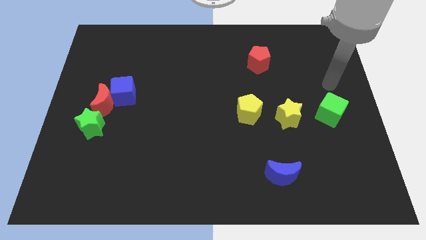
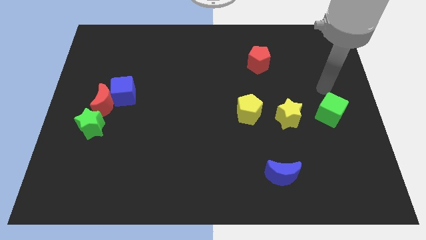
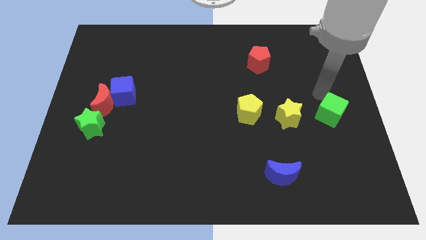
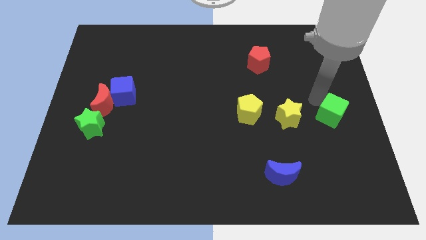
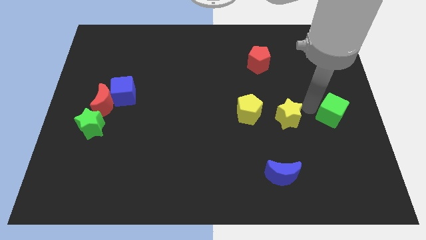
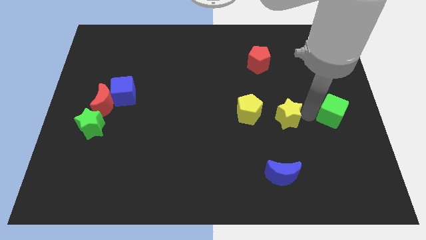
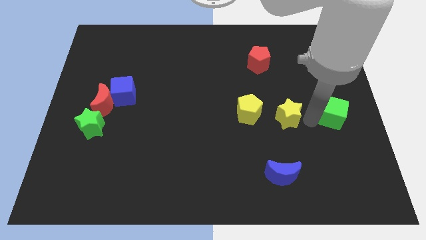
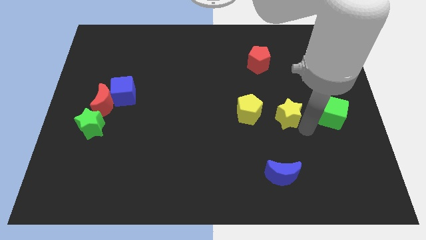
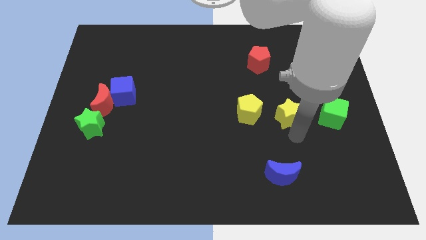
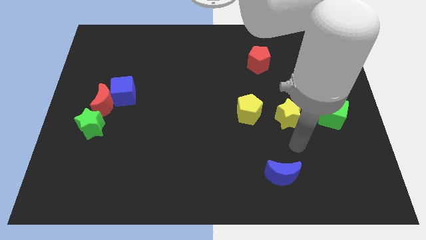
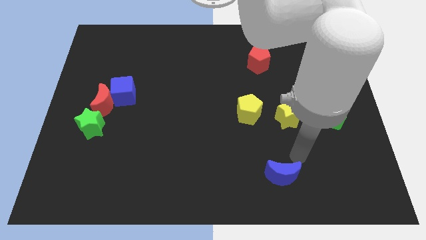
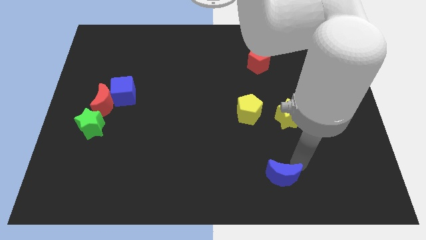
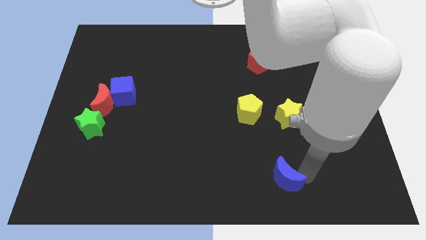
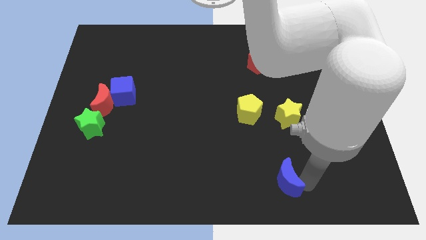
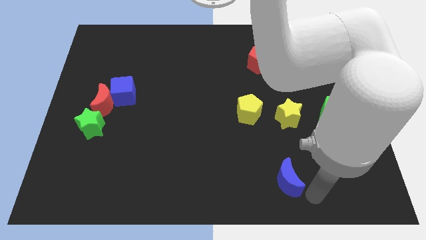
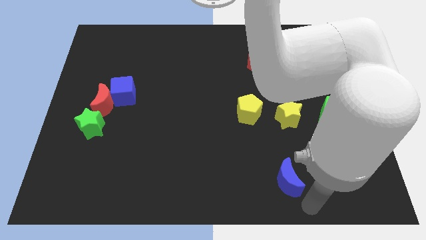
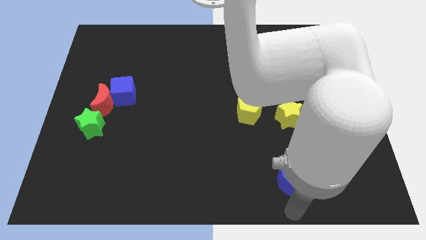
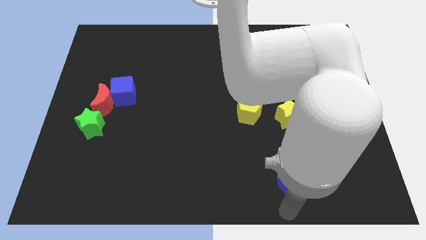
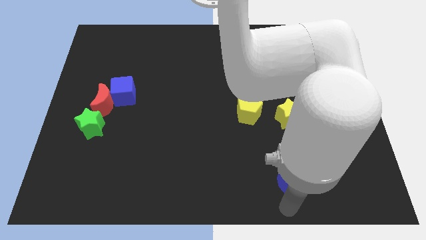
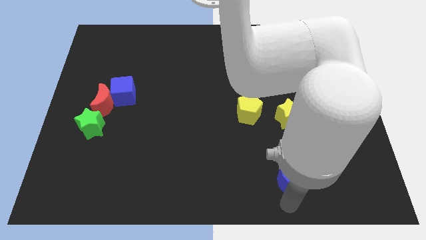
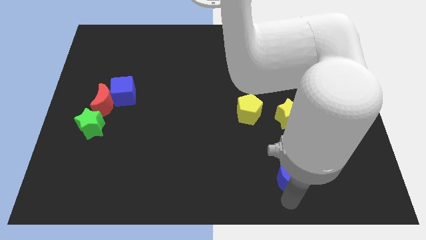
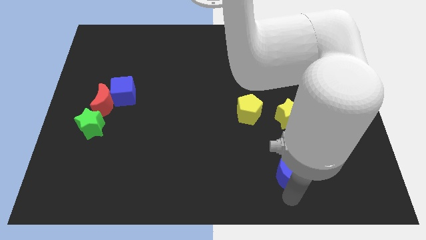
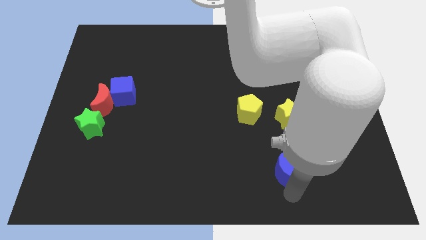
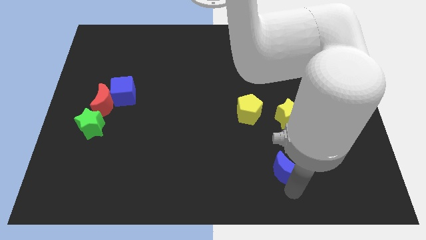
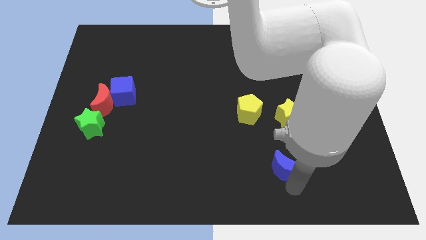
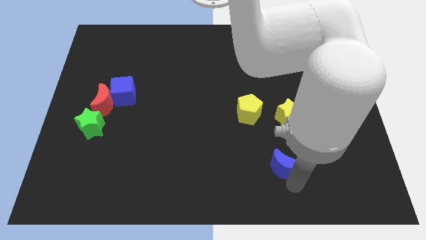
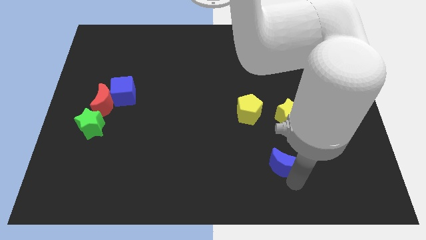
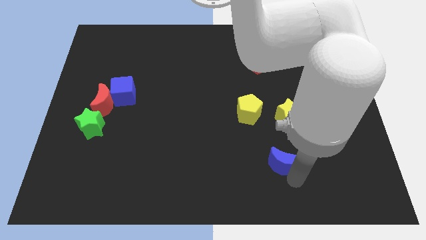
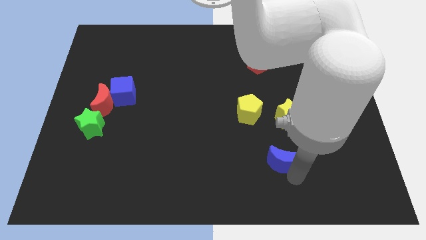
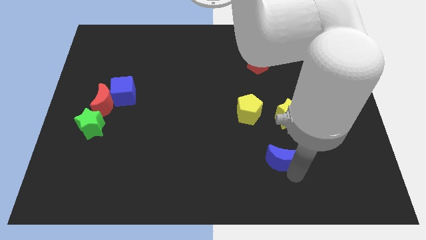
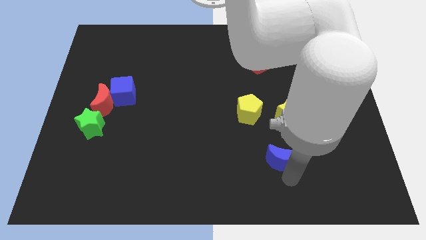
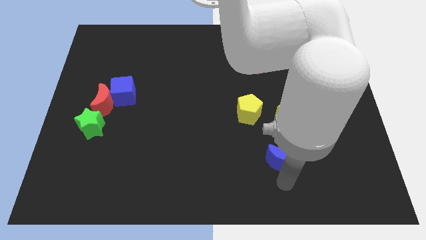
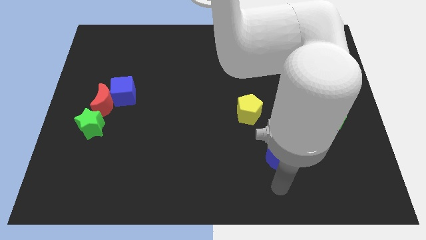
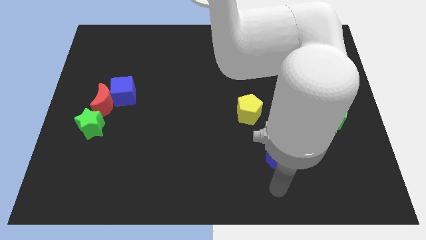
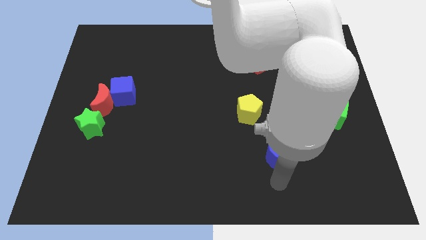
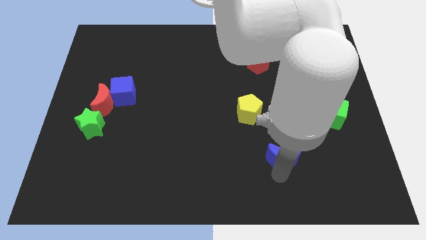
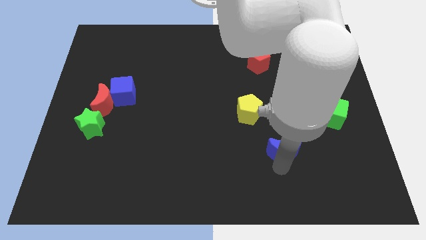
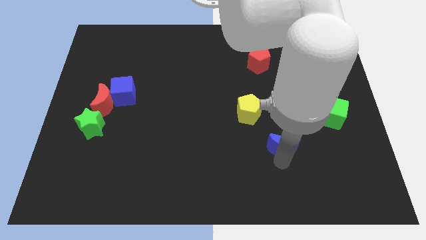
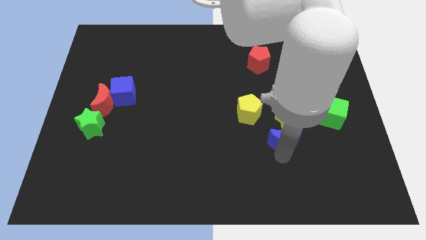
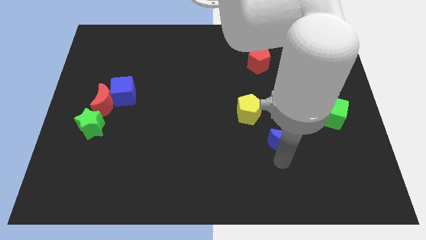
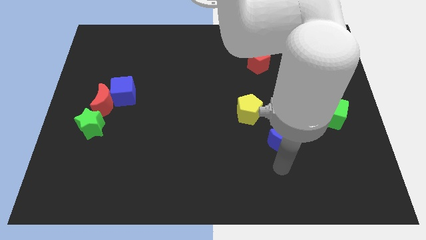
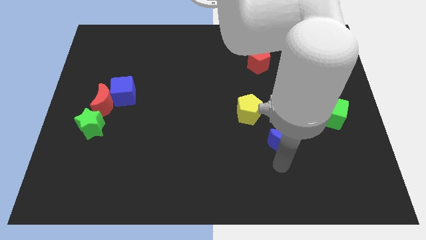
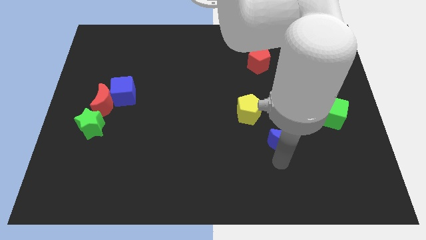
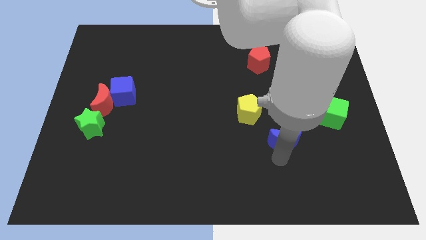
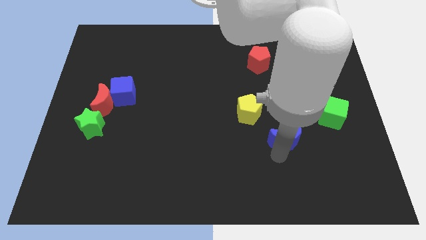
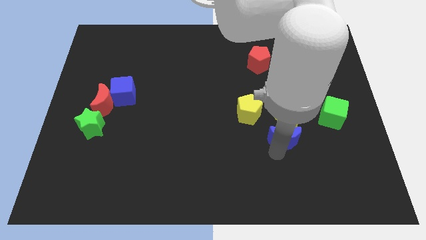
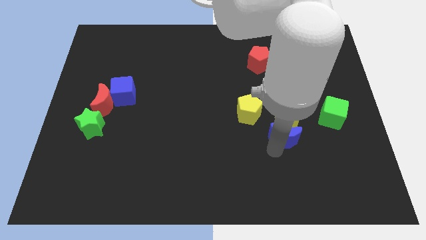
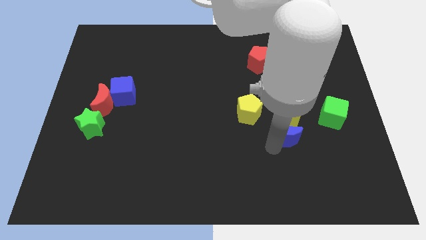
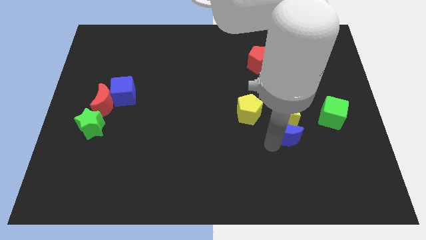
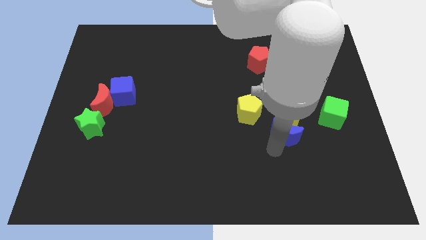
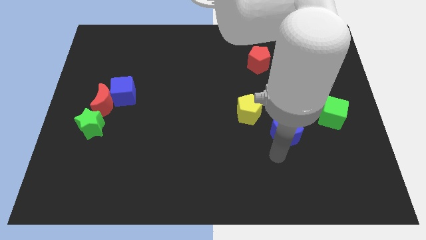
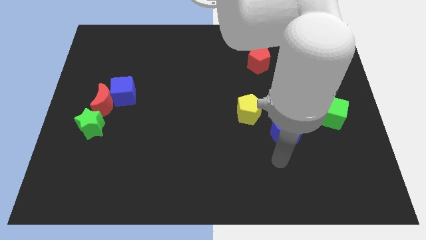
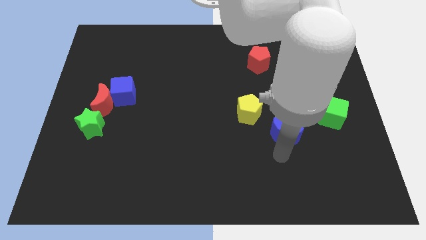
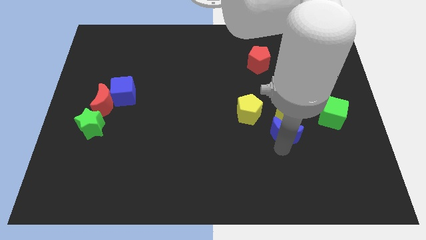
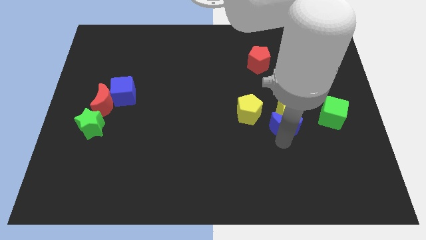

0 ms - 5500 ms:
move the blue moon to the left side of the green cube

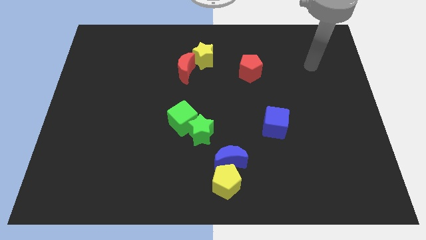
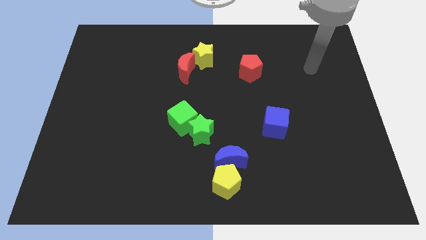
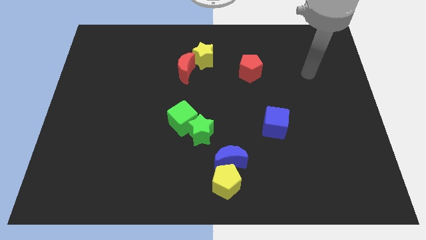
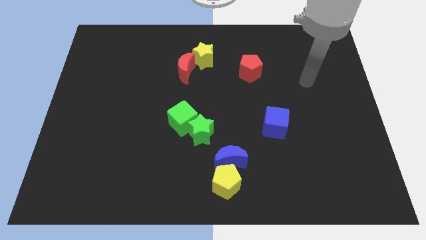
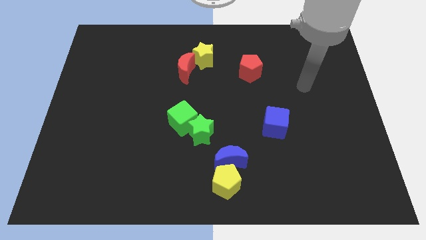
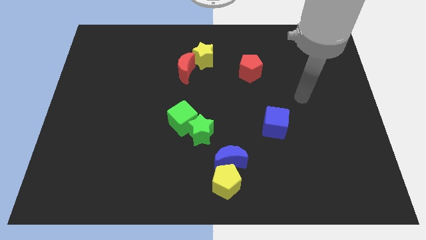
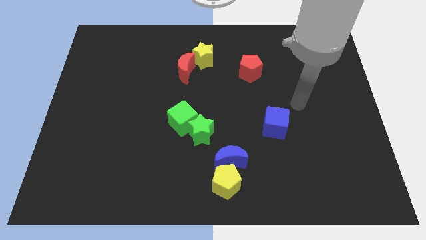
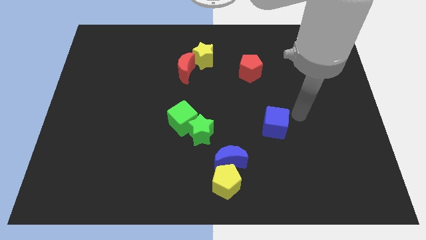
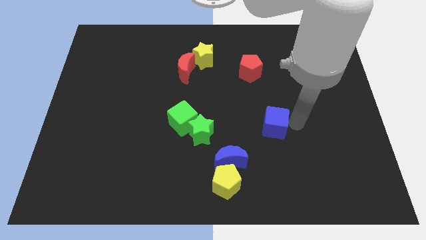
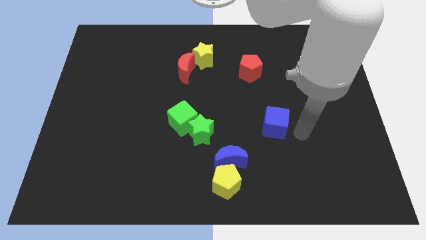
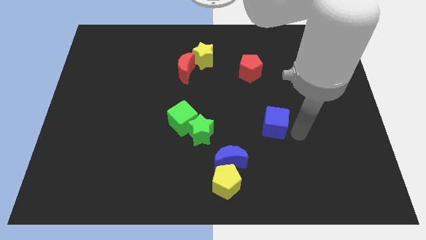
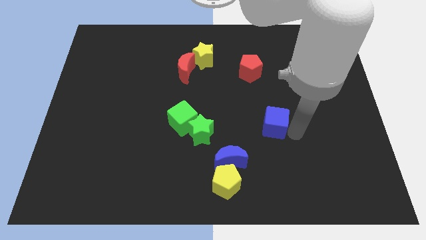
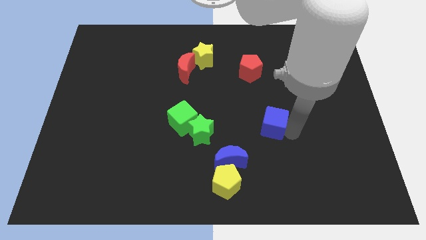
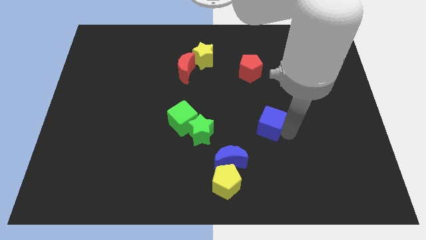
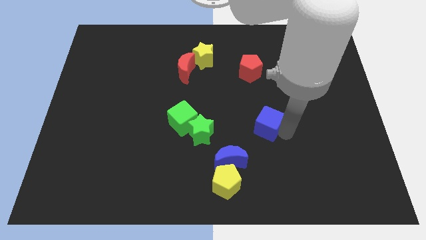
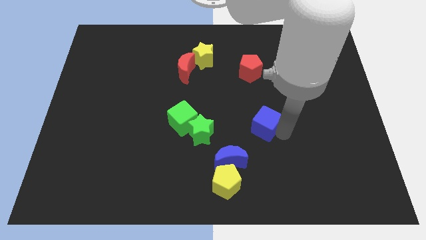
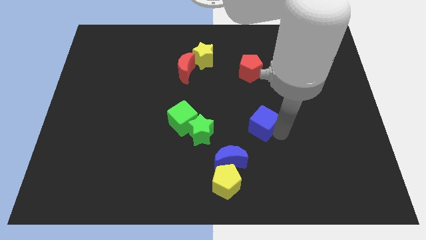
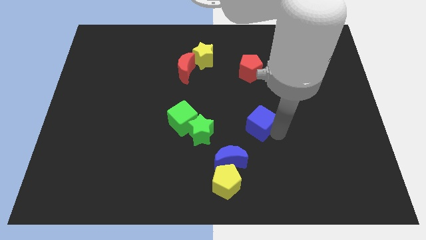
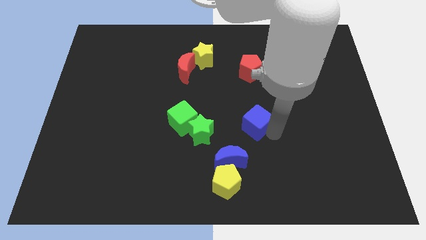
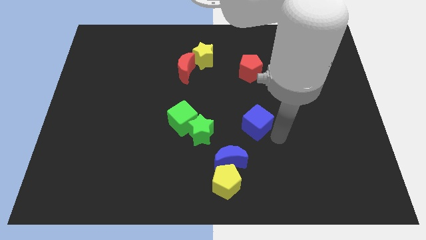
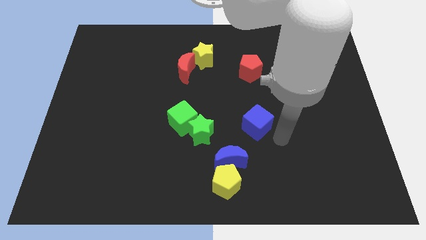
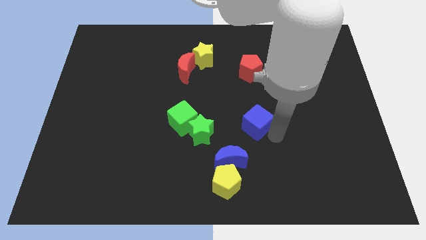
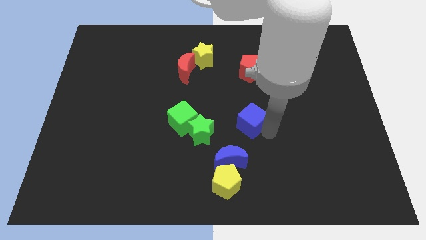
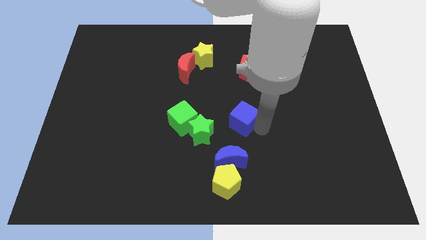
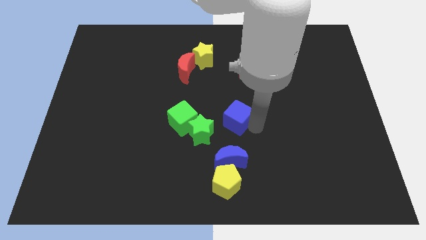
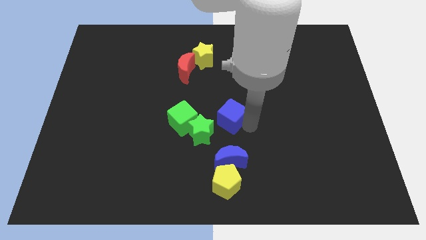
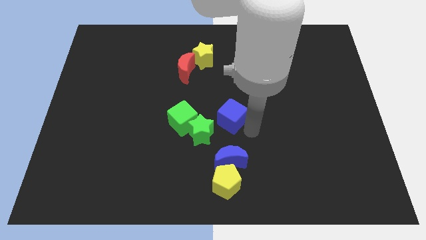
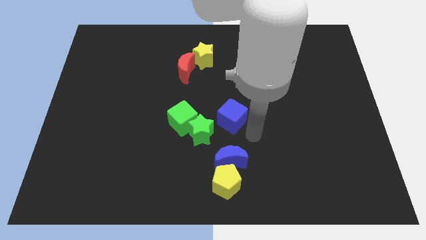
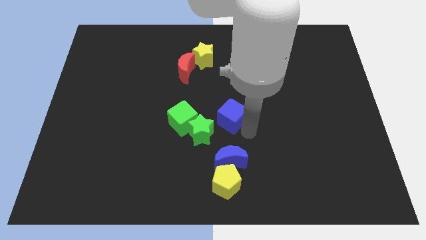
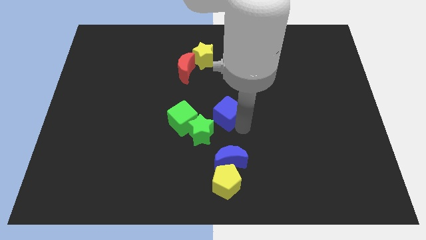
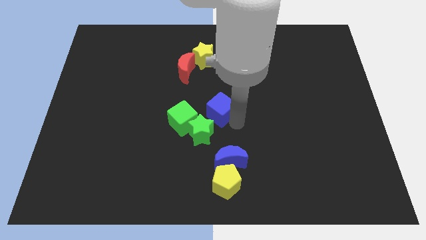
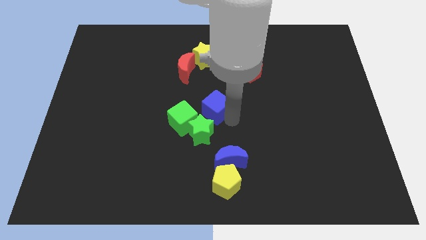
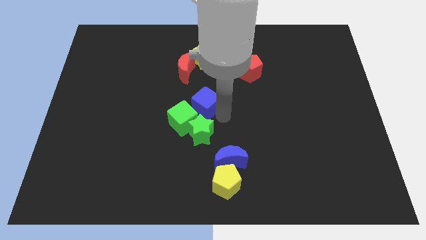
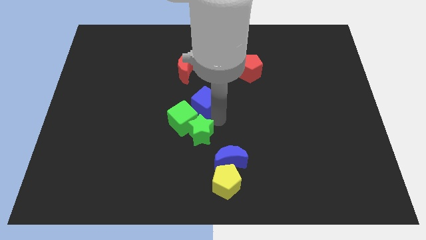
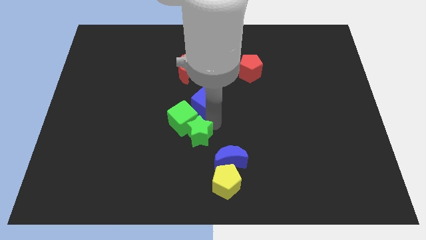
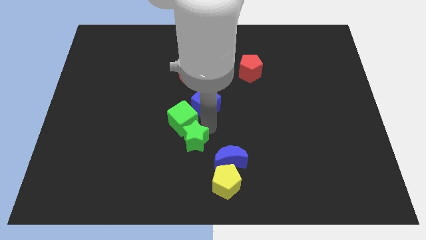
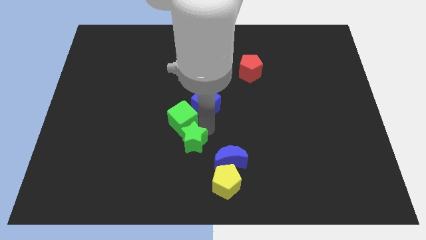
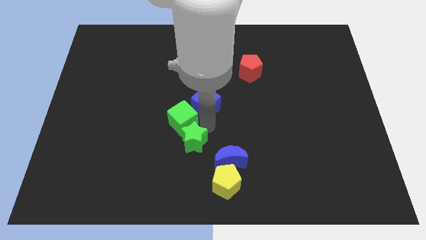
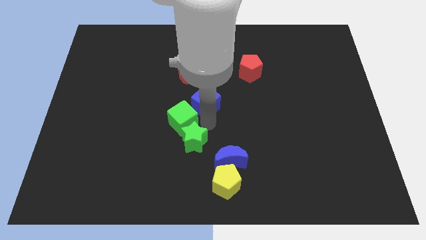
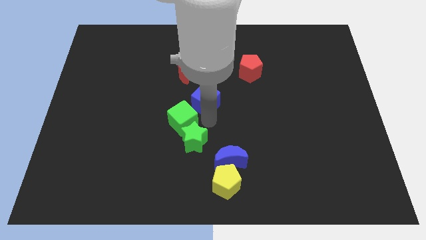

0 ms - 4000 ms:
move the blue cube diagonally down and to the right of the red moon
